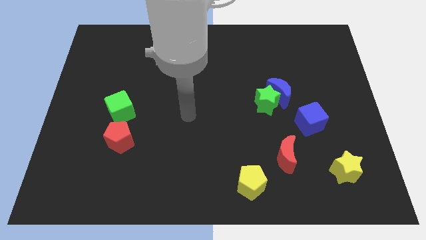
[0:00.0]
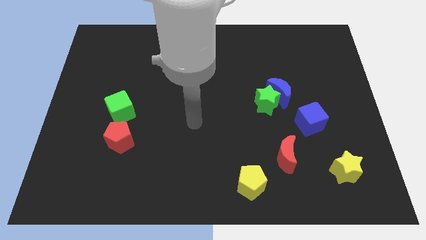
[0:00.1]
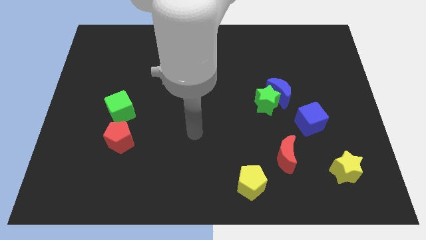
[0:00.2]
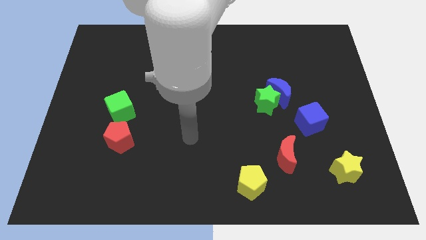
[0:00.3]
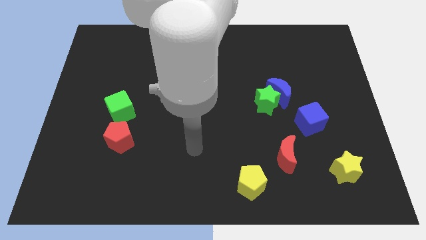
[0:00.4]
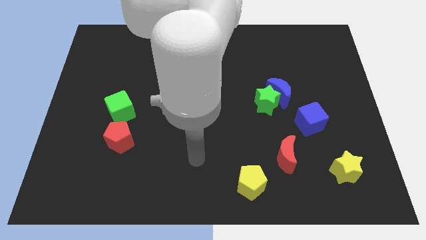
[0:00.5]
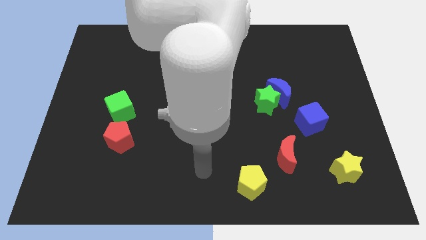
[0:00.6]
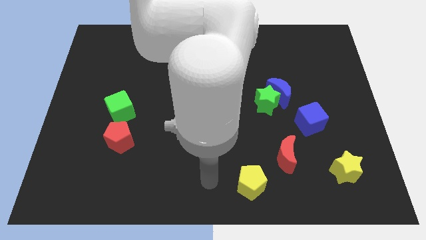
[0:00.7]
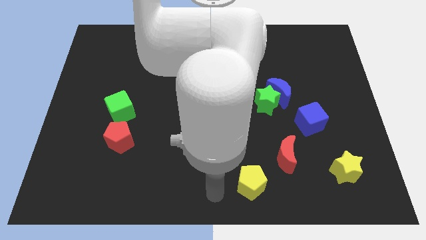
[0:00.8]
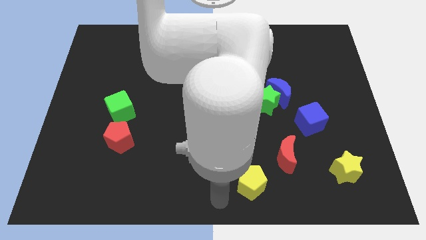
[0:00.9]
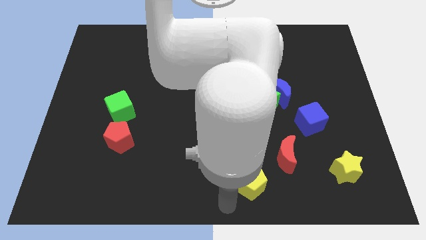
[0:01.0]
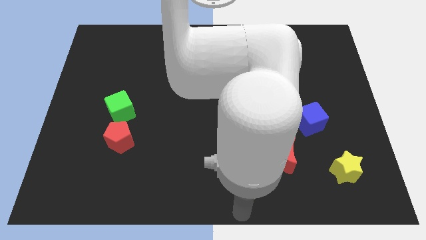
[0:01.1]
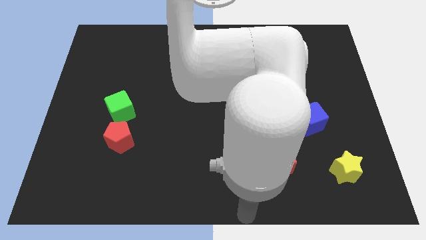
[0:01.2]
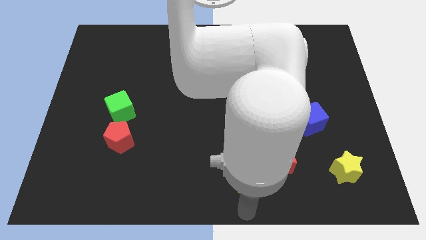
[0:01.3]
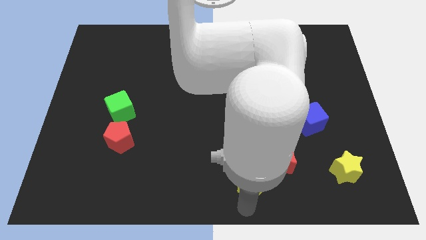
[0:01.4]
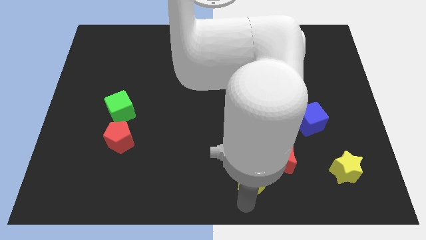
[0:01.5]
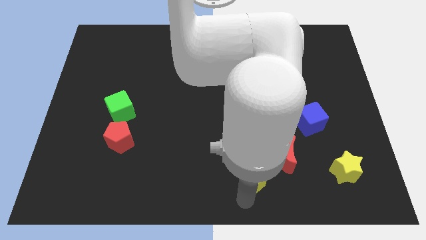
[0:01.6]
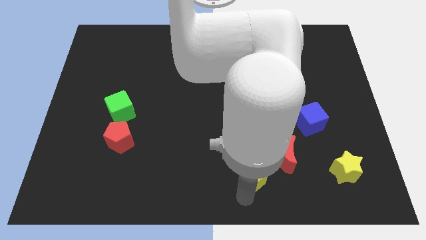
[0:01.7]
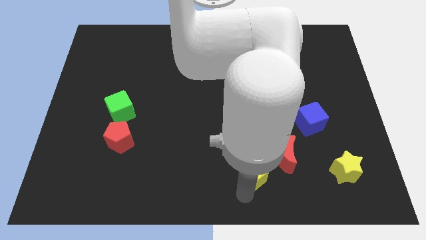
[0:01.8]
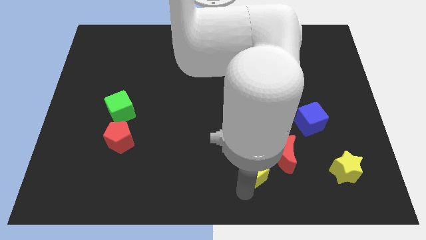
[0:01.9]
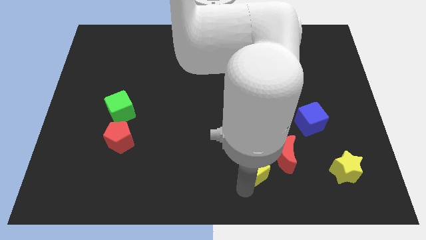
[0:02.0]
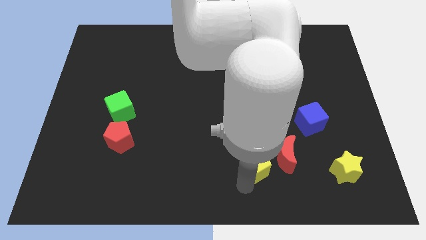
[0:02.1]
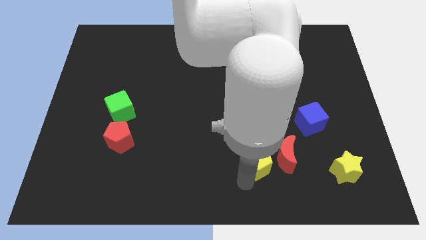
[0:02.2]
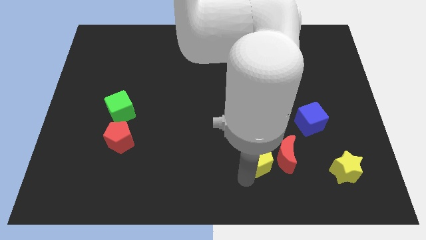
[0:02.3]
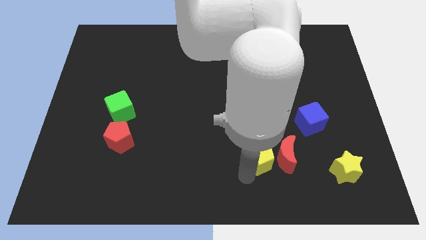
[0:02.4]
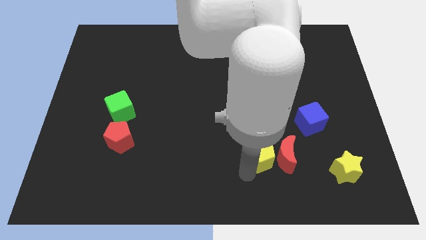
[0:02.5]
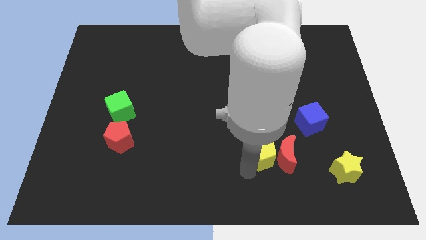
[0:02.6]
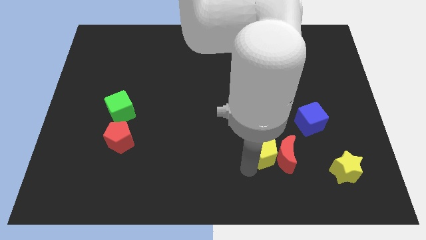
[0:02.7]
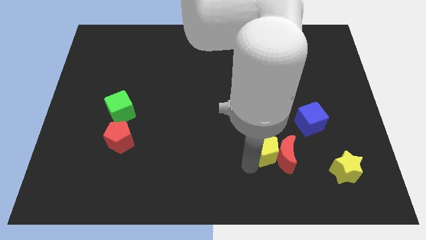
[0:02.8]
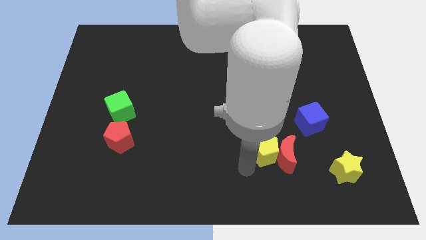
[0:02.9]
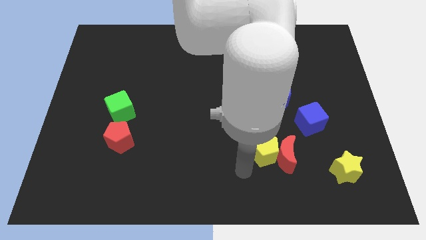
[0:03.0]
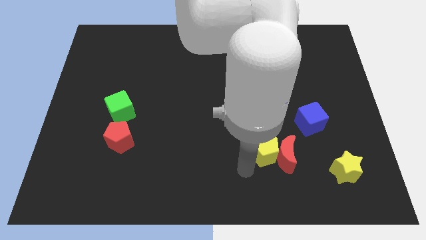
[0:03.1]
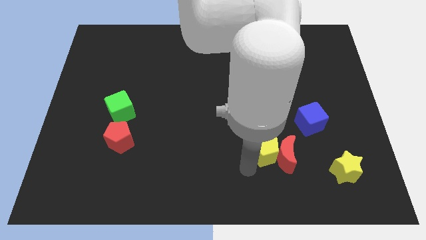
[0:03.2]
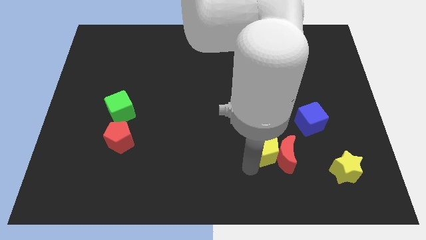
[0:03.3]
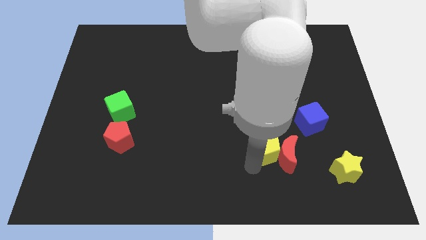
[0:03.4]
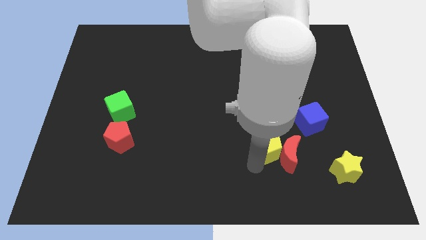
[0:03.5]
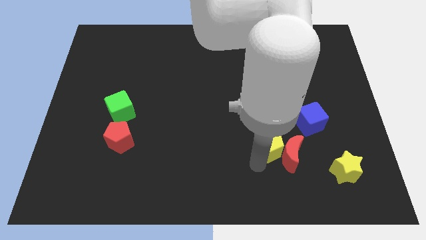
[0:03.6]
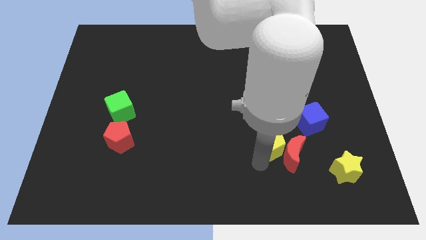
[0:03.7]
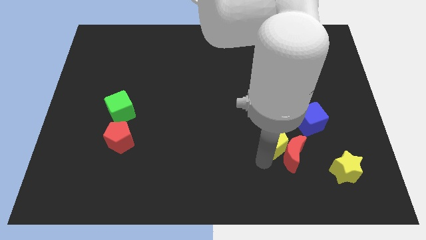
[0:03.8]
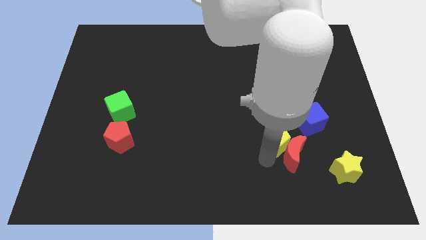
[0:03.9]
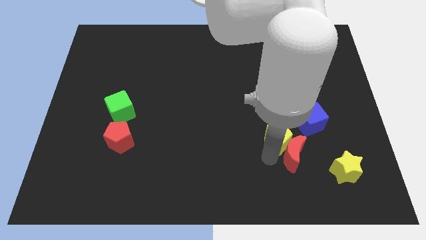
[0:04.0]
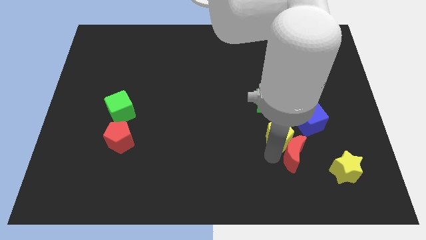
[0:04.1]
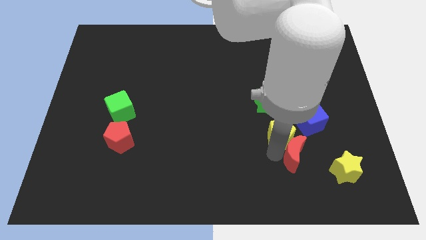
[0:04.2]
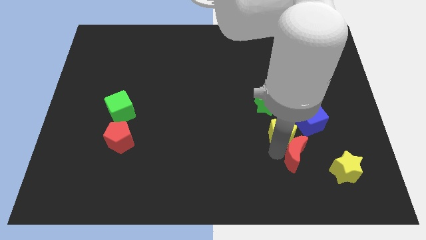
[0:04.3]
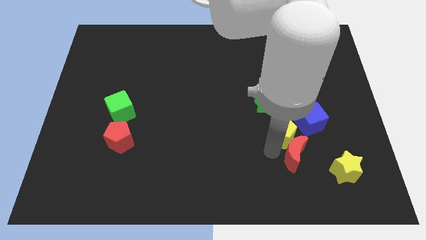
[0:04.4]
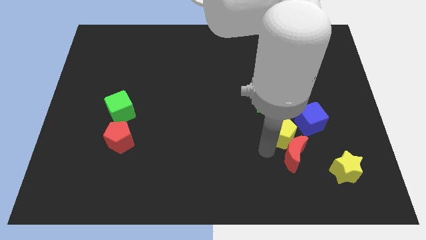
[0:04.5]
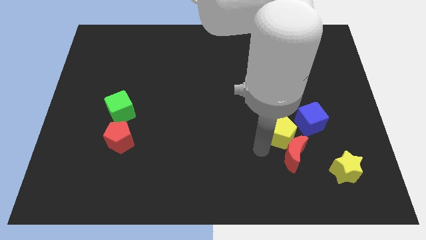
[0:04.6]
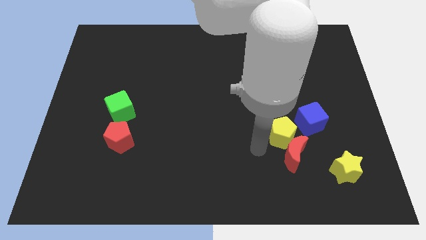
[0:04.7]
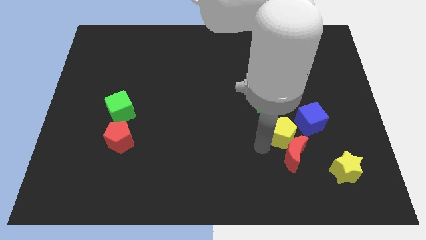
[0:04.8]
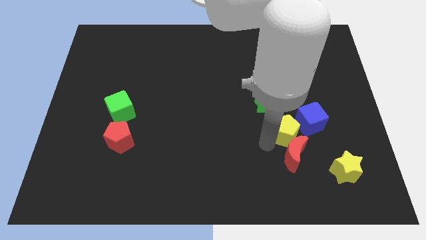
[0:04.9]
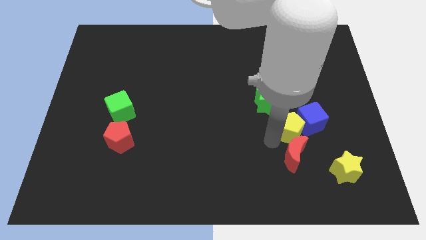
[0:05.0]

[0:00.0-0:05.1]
move the yellow pentagon close to the blue cube

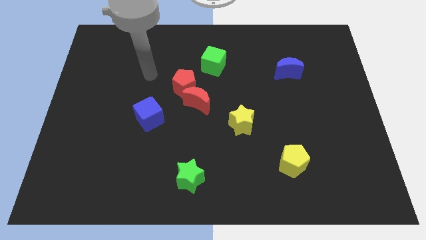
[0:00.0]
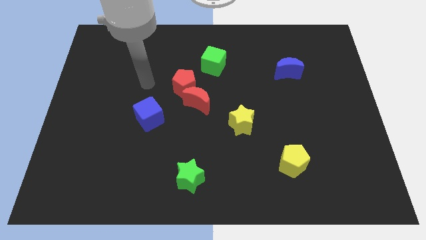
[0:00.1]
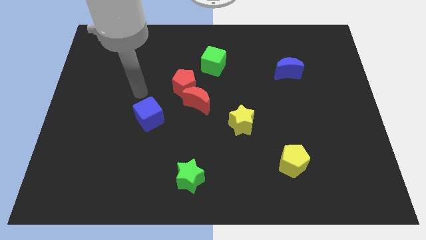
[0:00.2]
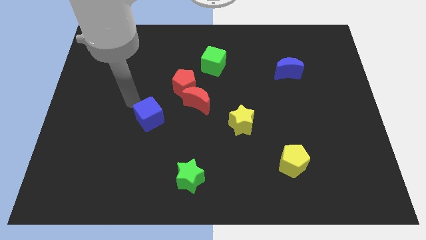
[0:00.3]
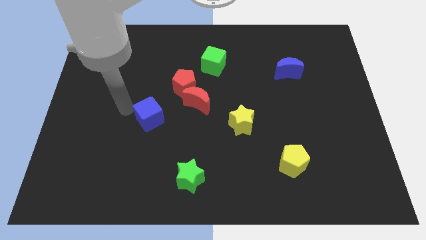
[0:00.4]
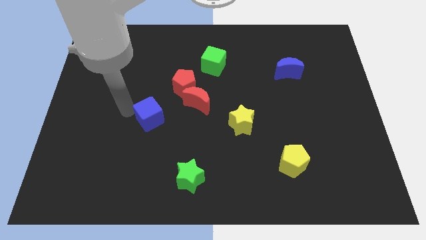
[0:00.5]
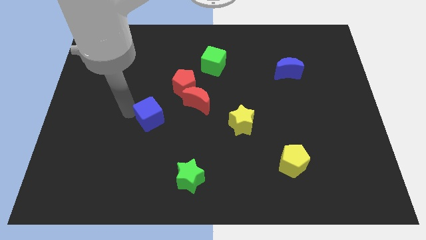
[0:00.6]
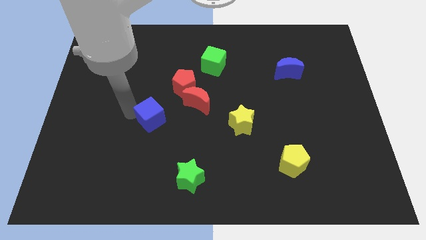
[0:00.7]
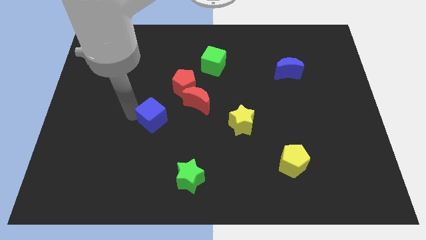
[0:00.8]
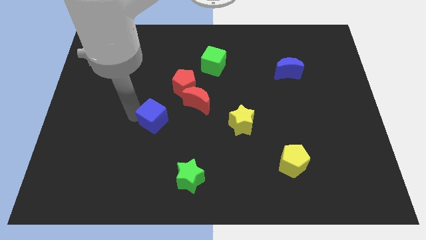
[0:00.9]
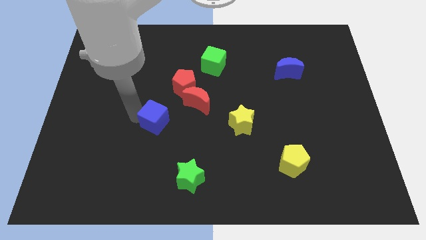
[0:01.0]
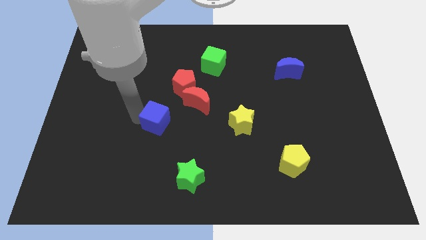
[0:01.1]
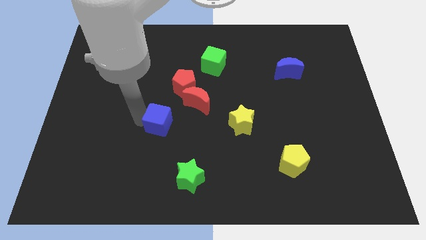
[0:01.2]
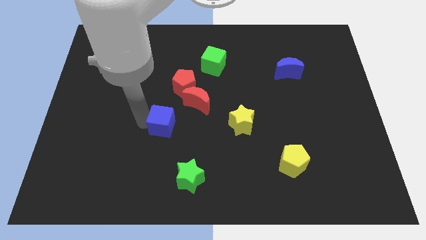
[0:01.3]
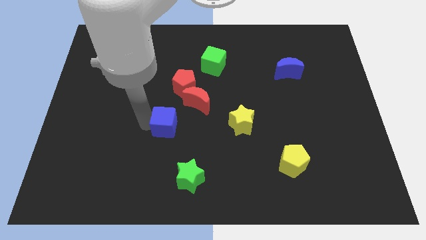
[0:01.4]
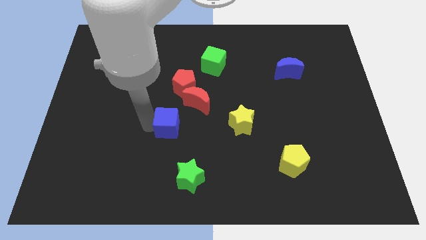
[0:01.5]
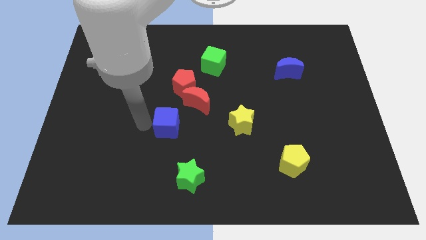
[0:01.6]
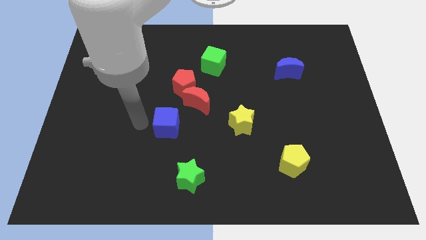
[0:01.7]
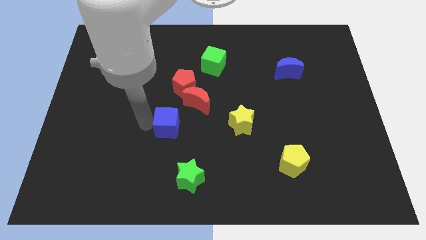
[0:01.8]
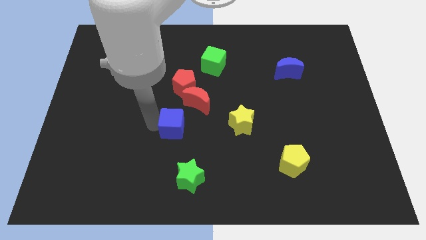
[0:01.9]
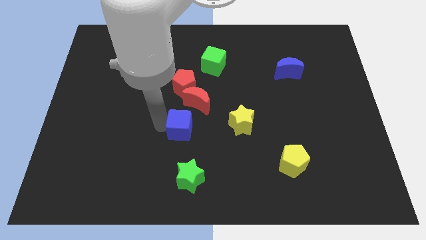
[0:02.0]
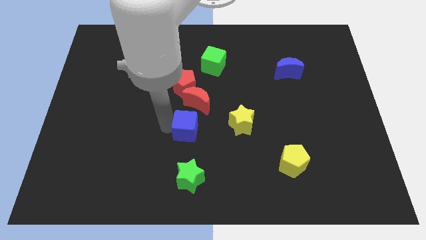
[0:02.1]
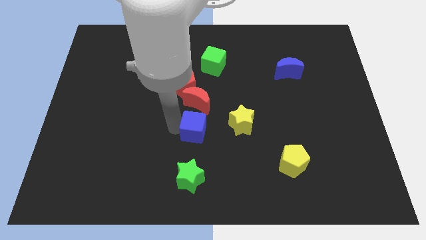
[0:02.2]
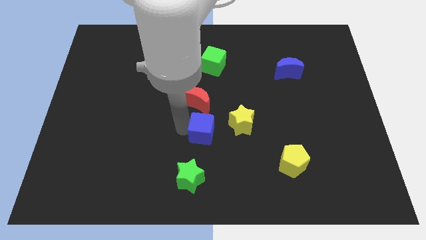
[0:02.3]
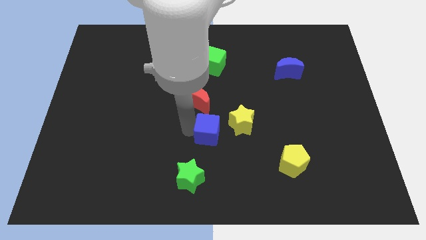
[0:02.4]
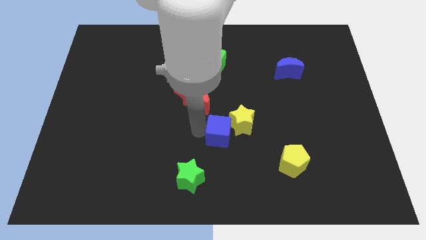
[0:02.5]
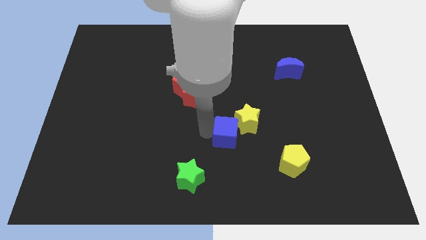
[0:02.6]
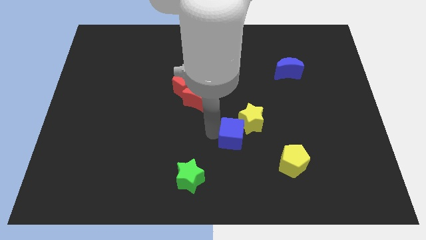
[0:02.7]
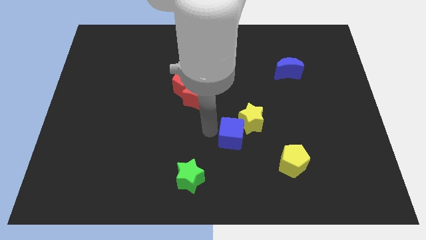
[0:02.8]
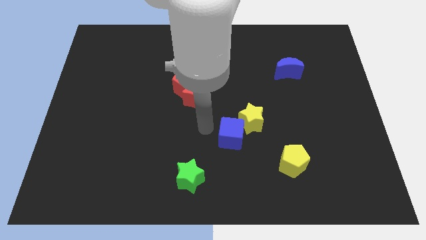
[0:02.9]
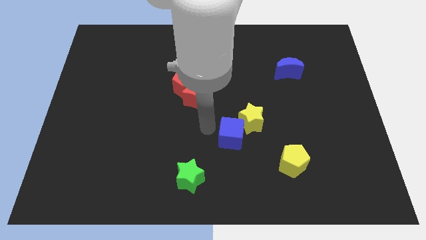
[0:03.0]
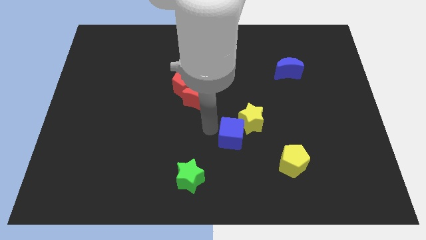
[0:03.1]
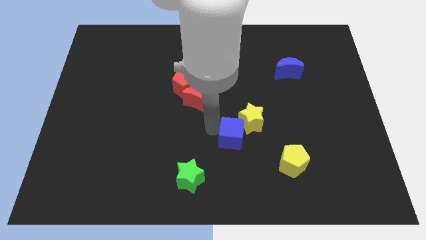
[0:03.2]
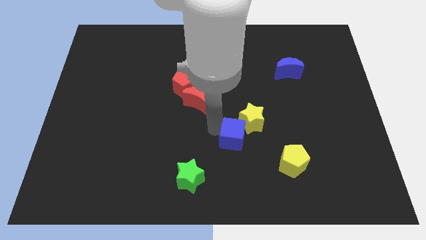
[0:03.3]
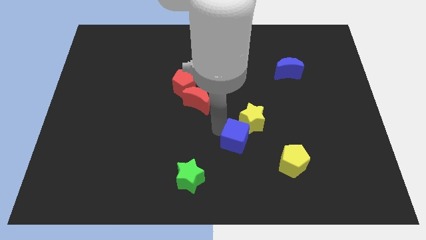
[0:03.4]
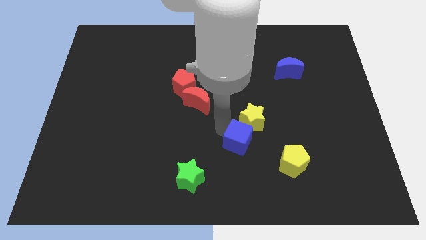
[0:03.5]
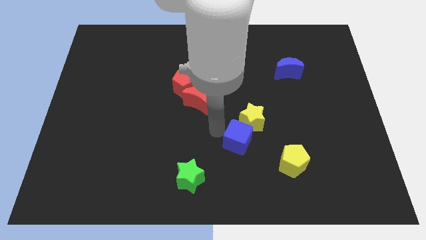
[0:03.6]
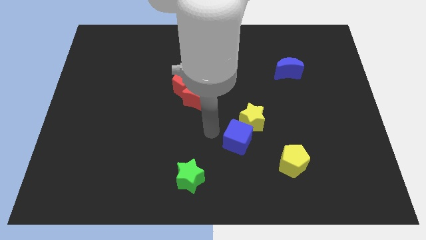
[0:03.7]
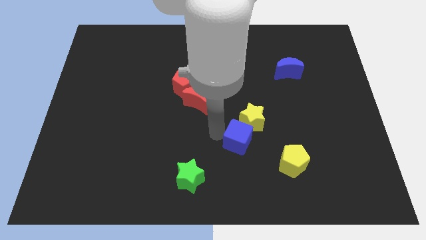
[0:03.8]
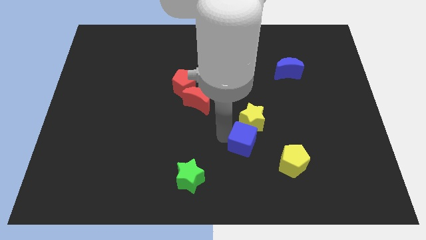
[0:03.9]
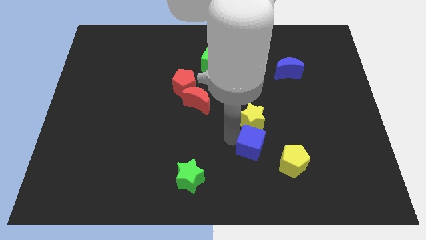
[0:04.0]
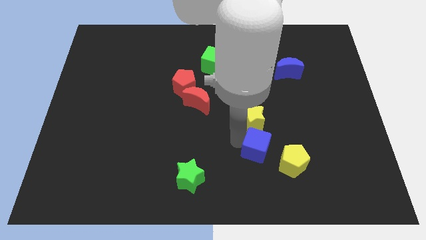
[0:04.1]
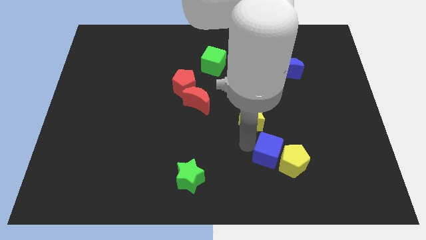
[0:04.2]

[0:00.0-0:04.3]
push the blue cube to the yellow pentagon
